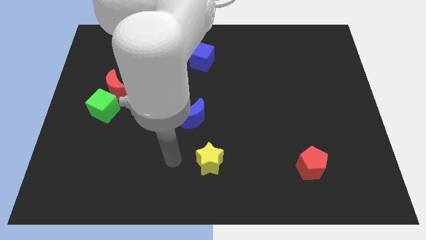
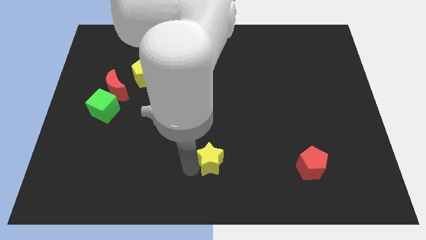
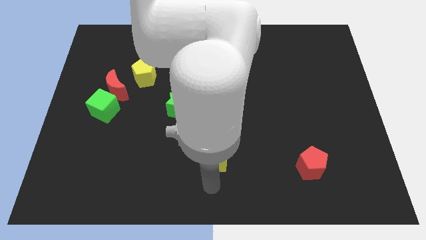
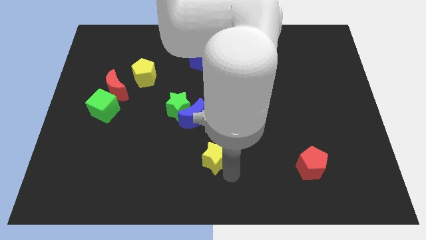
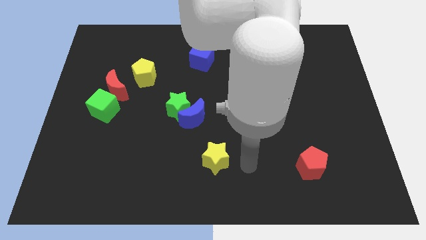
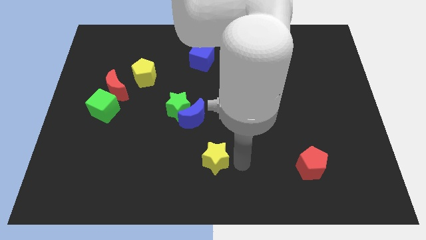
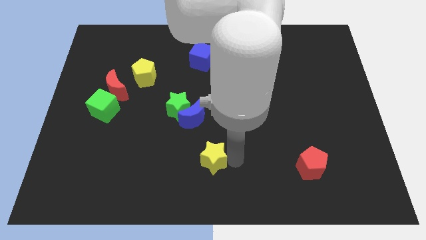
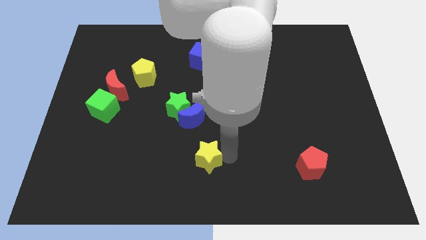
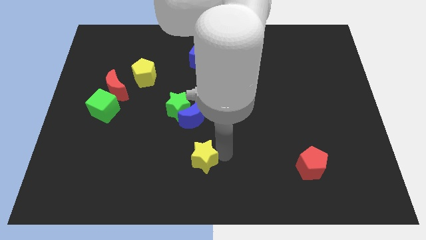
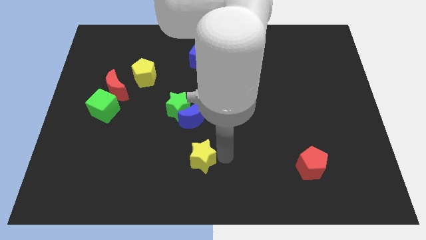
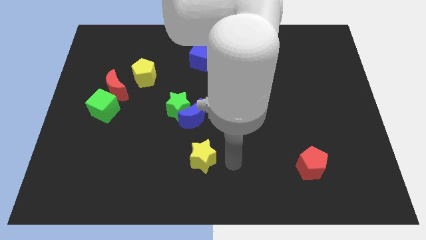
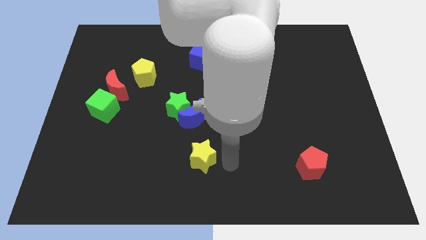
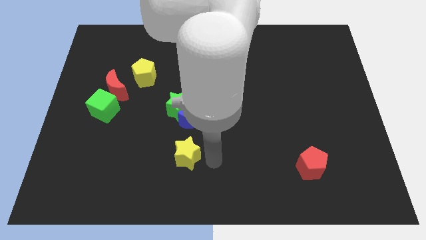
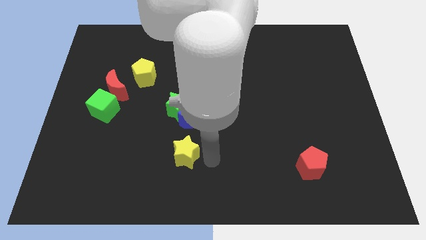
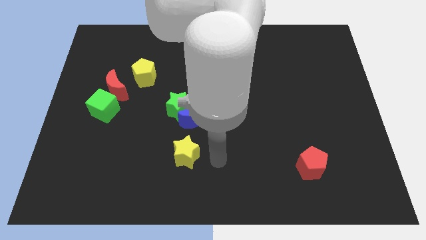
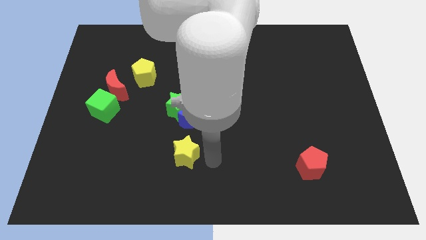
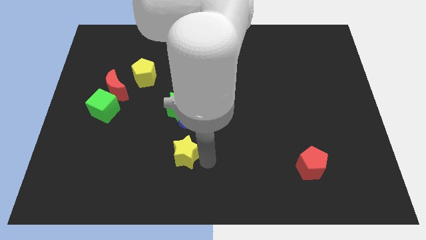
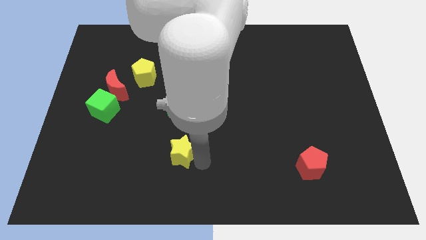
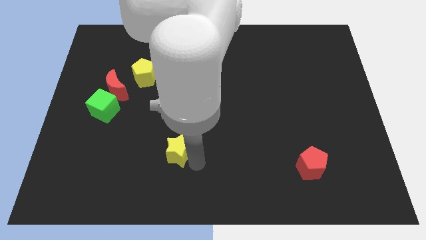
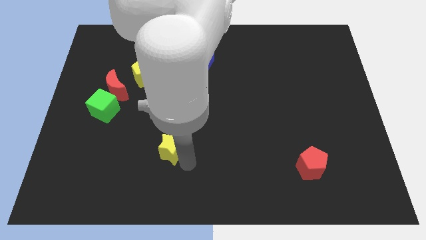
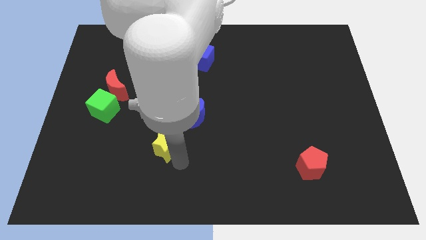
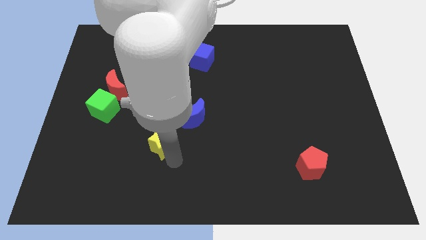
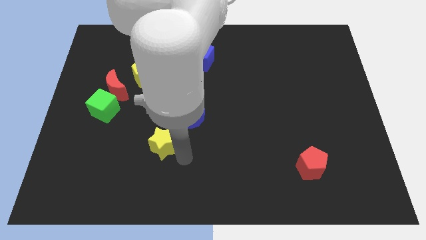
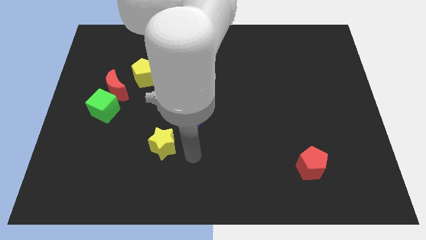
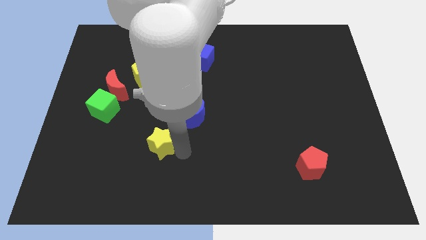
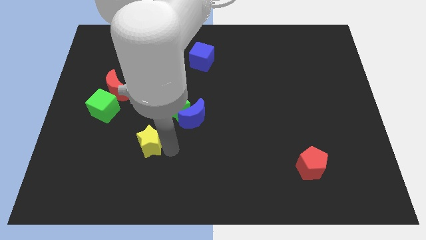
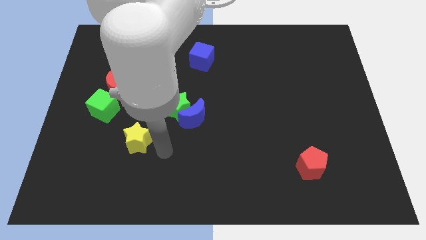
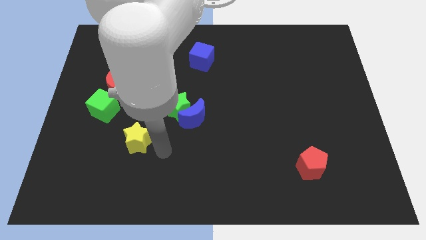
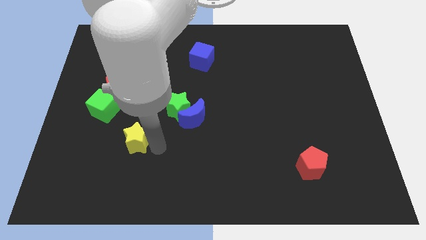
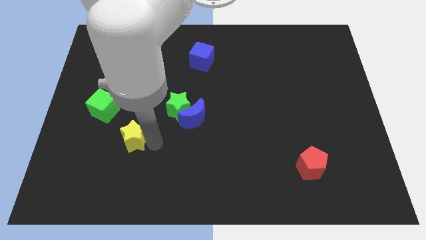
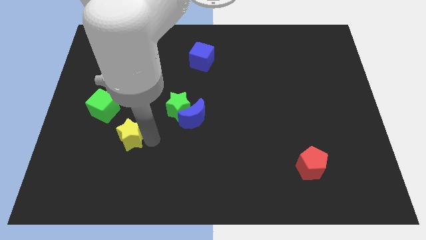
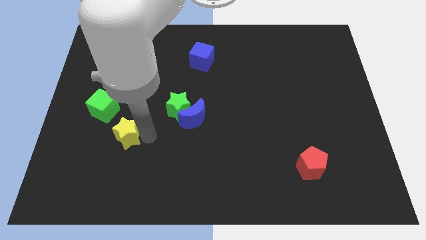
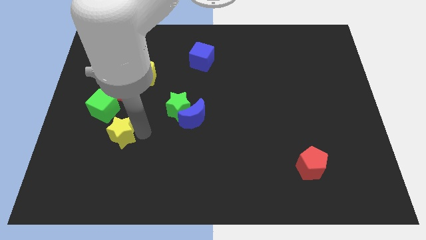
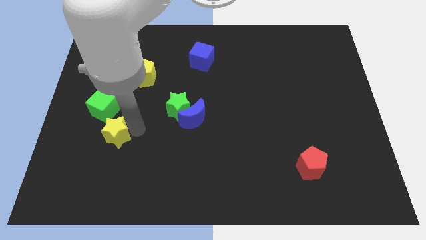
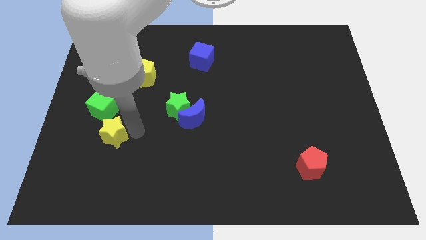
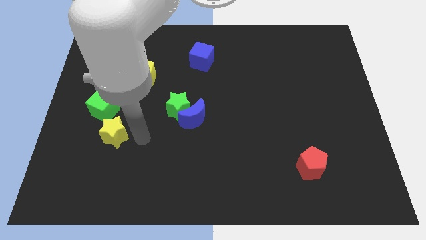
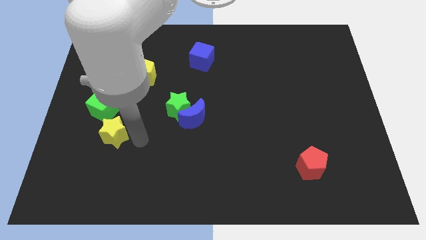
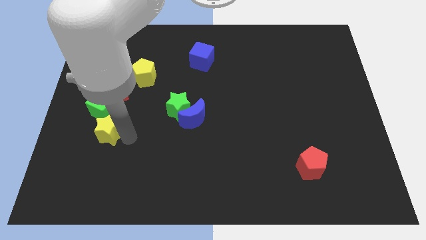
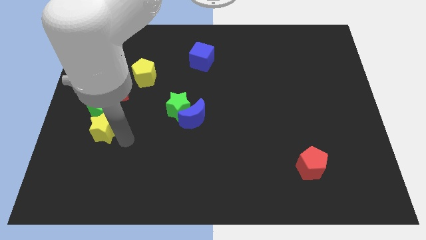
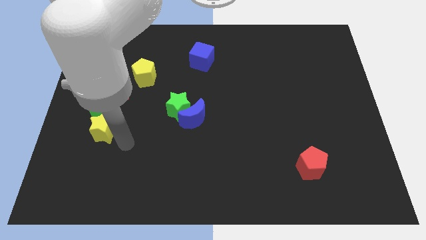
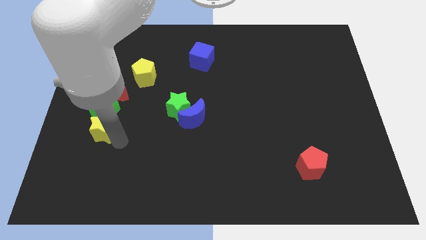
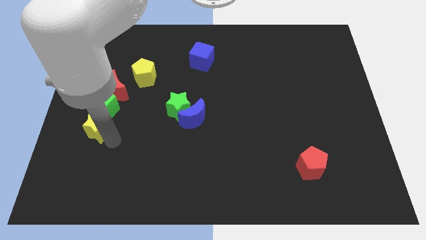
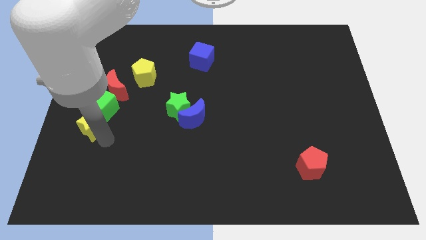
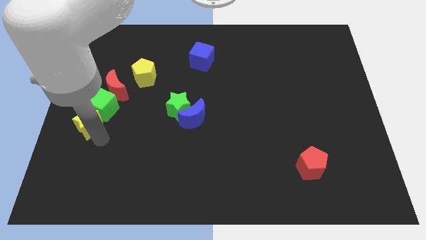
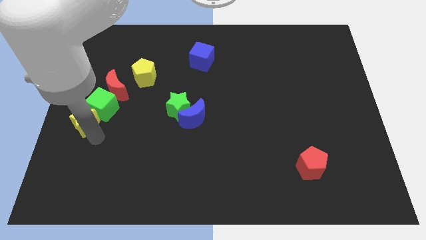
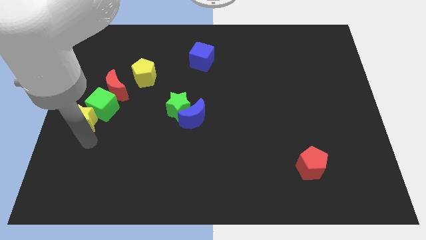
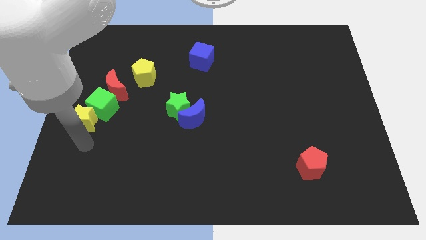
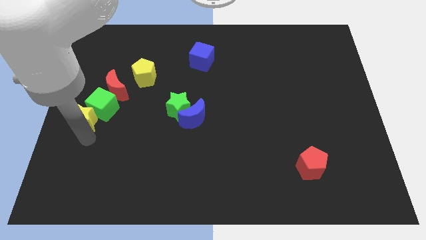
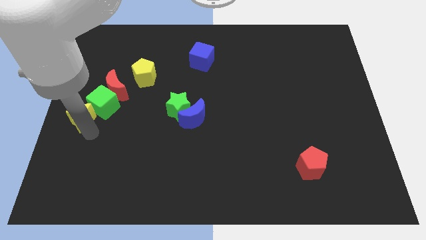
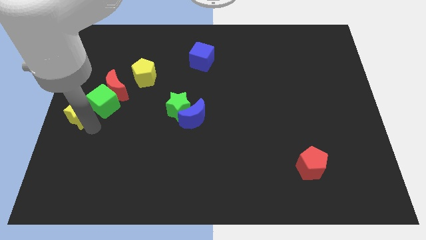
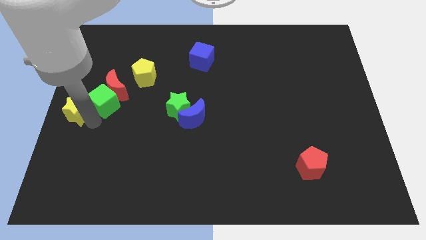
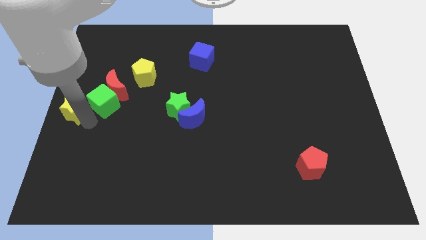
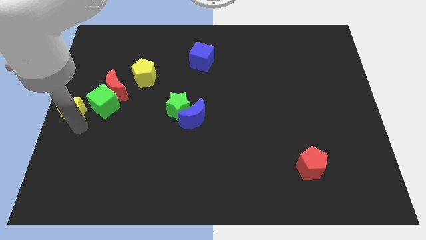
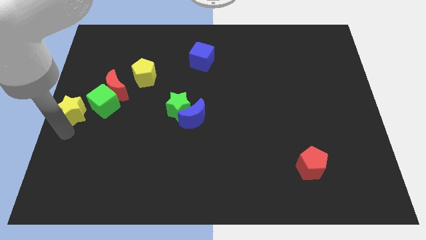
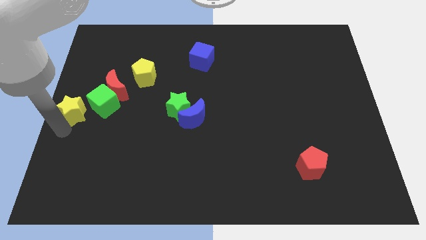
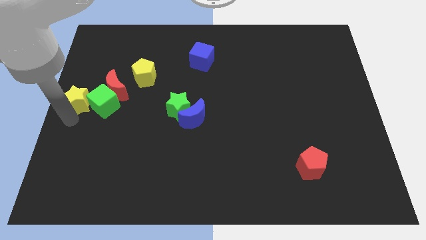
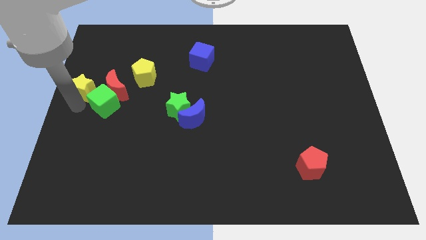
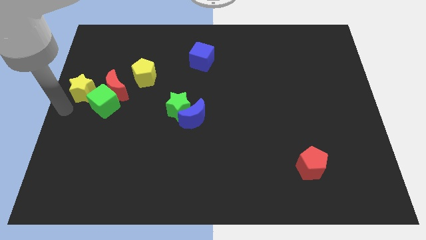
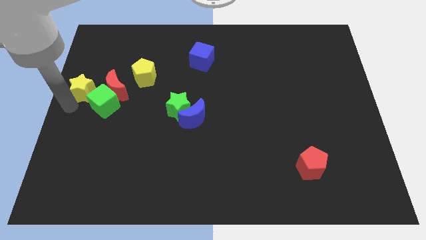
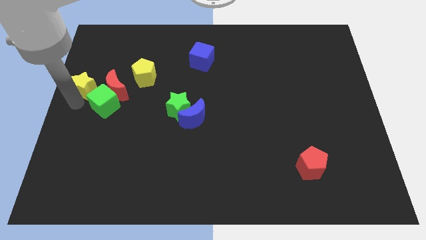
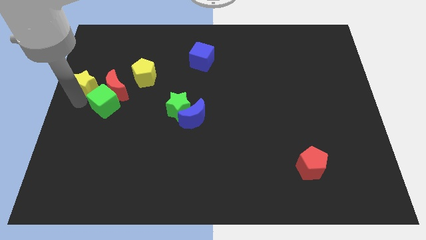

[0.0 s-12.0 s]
push the yellow star to the left of the yellow pentagon

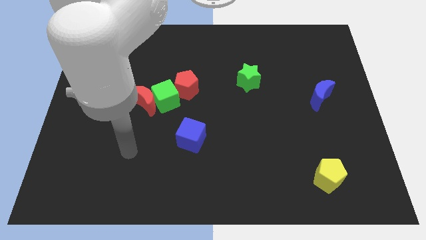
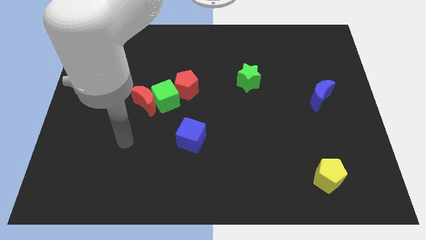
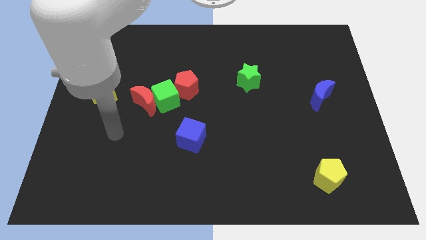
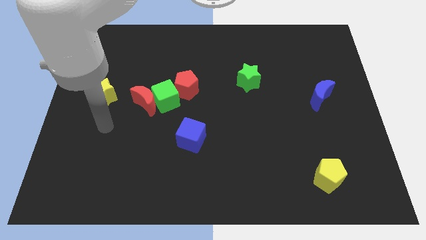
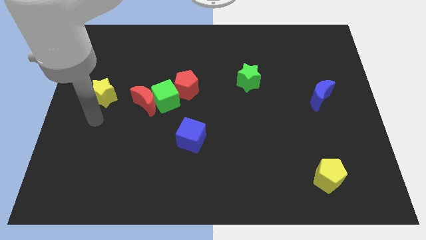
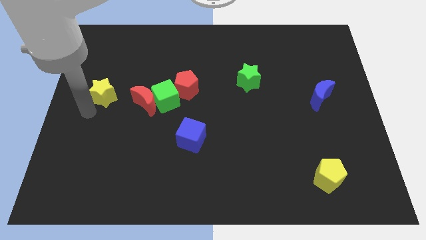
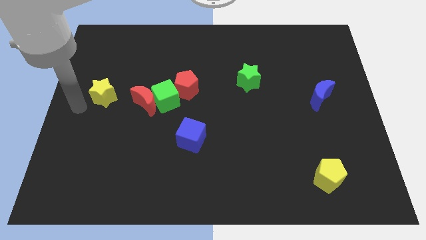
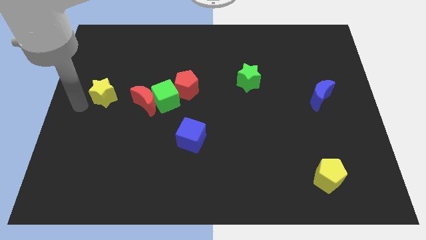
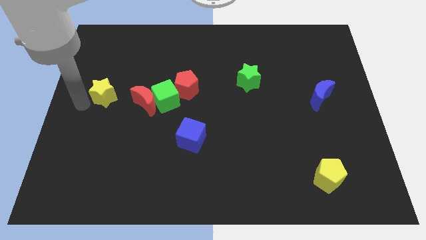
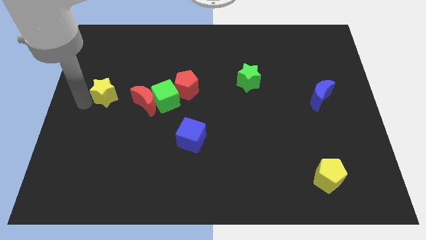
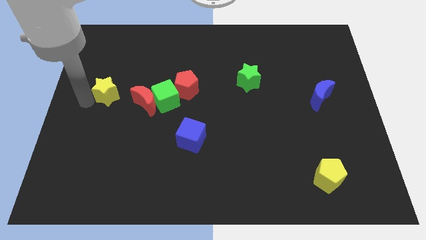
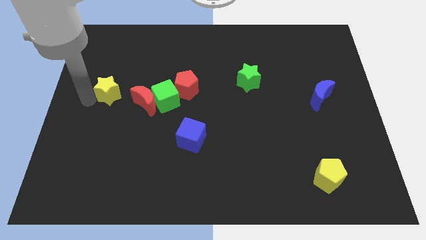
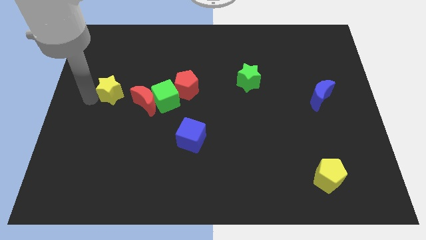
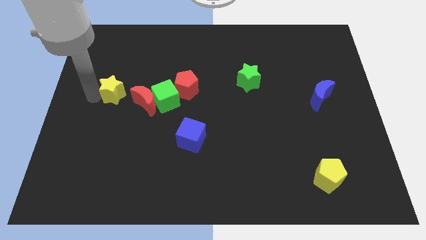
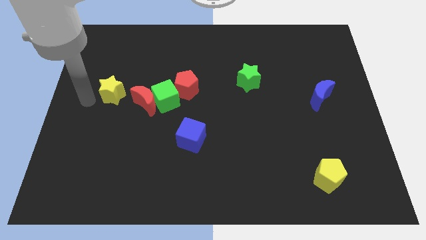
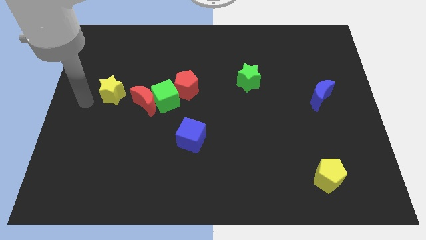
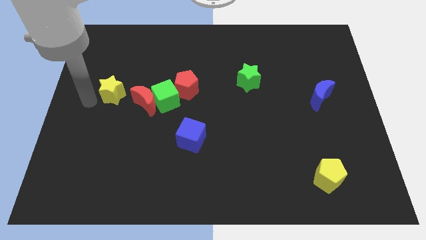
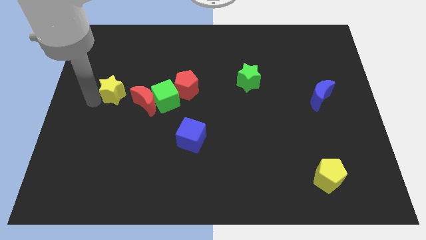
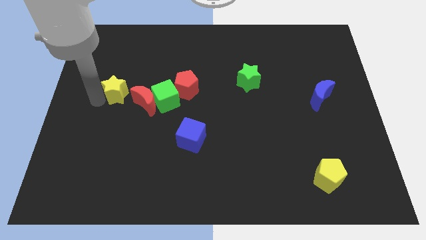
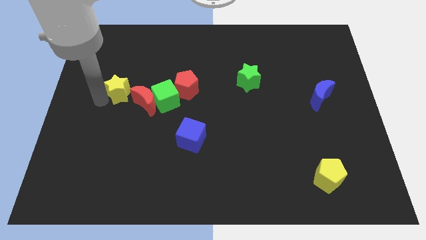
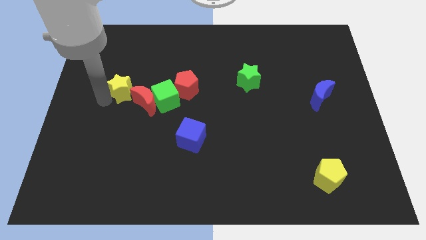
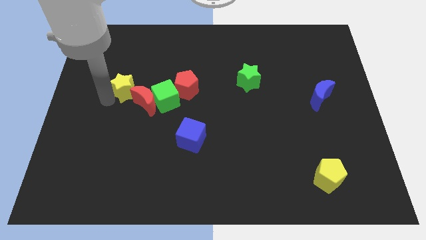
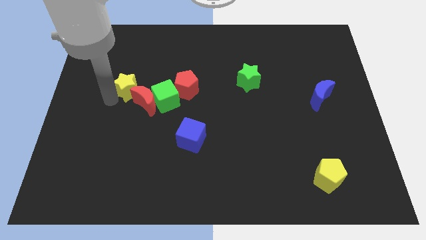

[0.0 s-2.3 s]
slide the yellow star diagonally up and to the left of the green cube
